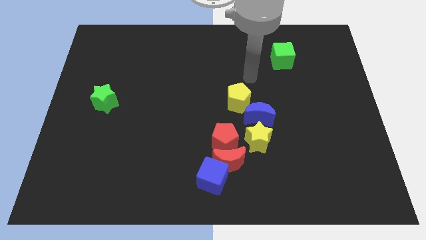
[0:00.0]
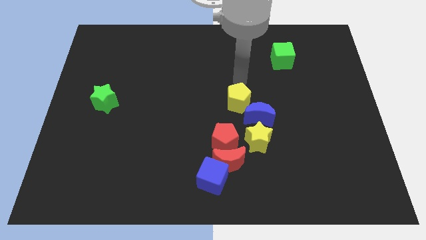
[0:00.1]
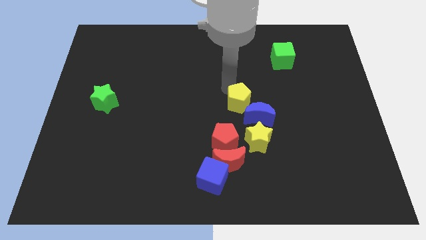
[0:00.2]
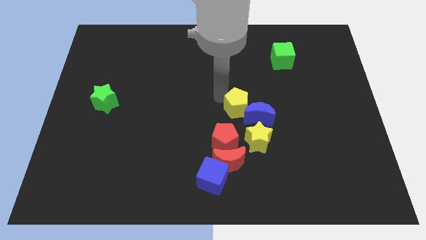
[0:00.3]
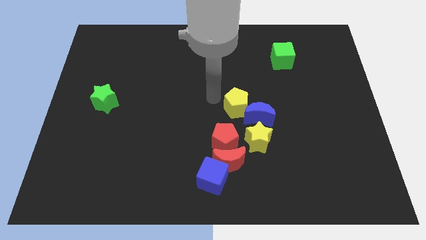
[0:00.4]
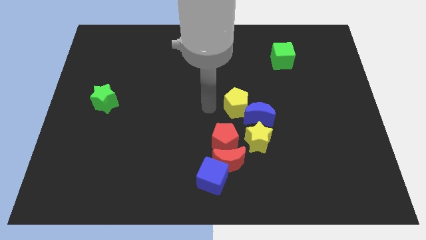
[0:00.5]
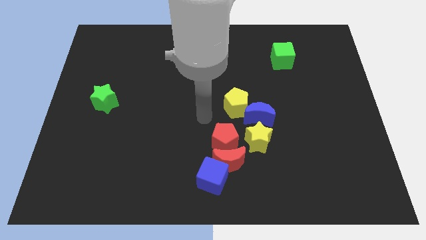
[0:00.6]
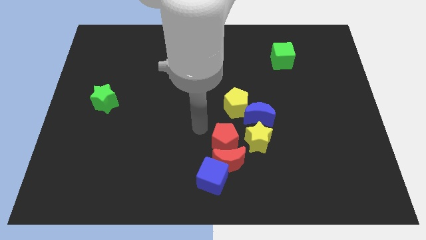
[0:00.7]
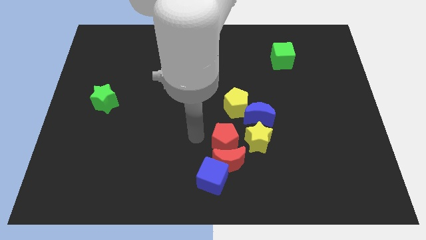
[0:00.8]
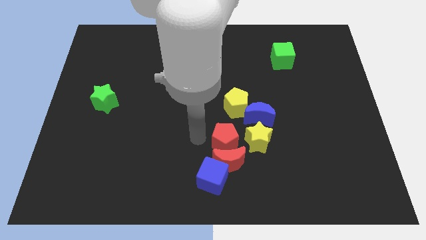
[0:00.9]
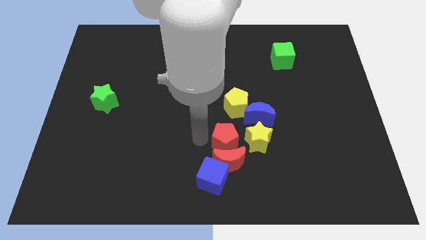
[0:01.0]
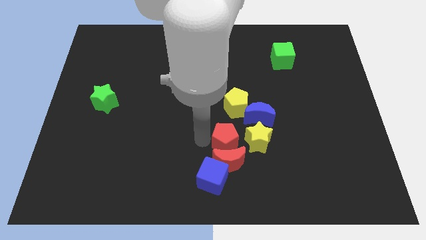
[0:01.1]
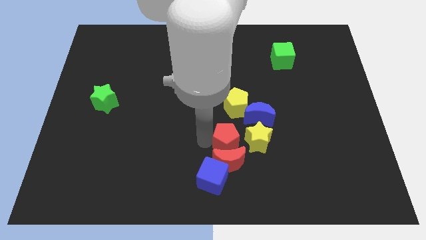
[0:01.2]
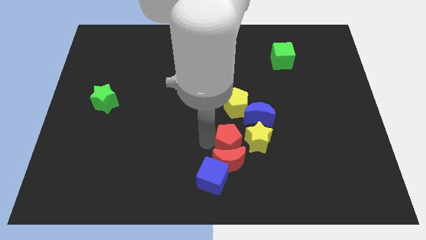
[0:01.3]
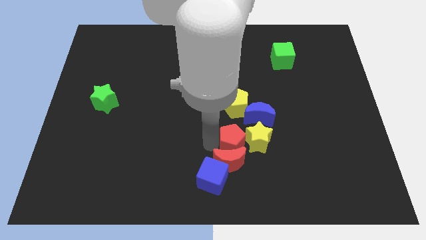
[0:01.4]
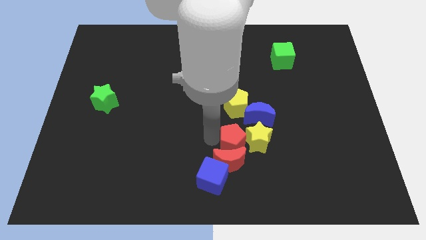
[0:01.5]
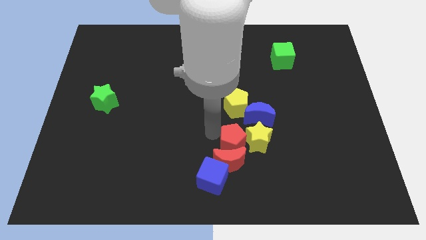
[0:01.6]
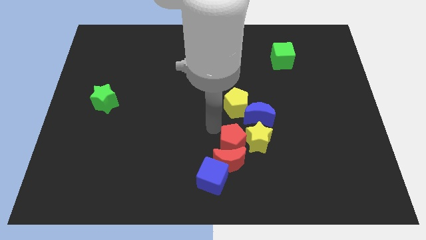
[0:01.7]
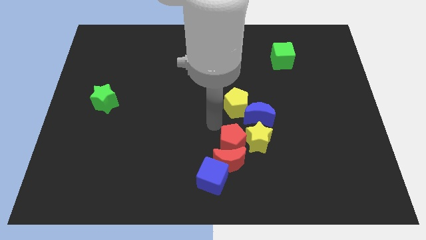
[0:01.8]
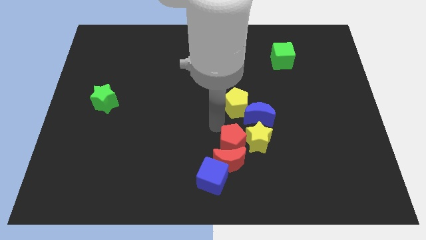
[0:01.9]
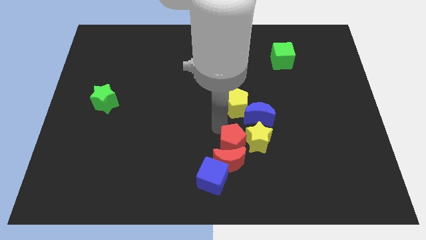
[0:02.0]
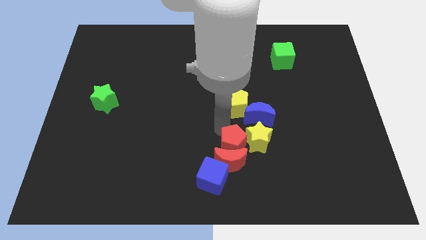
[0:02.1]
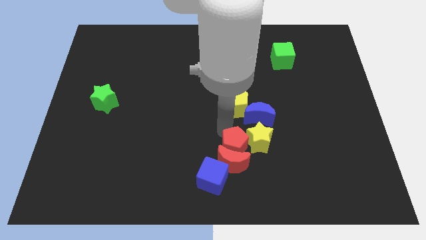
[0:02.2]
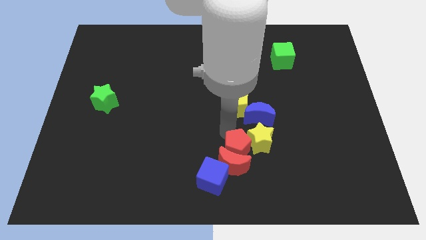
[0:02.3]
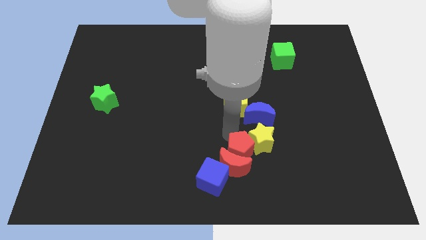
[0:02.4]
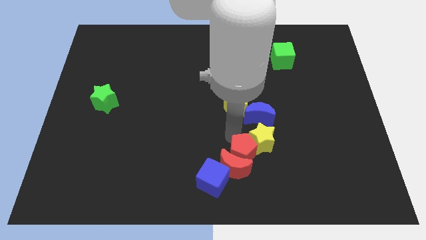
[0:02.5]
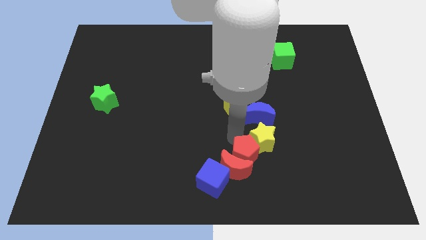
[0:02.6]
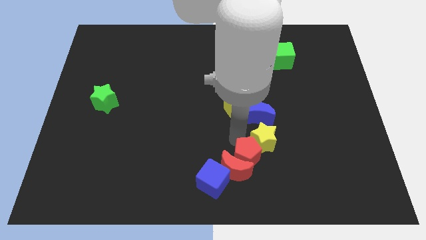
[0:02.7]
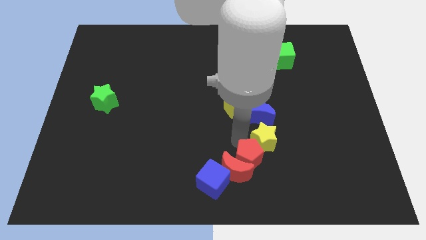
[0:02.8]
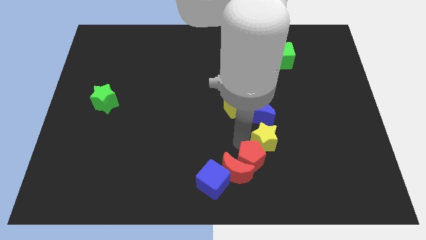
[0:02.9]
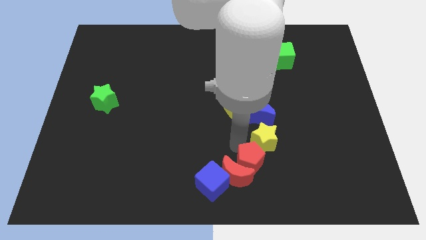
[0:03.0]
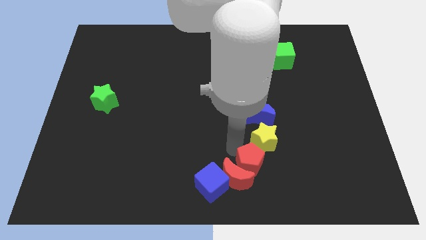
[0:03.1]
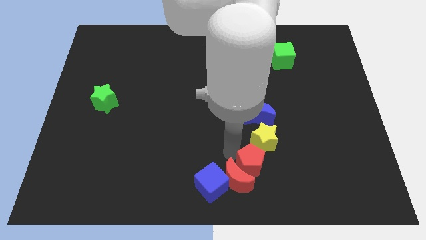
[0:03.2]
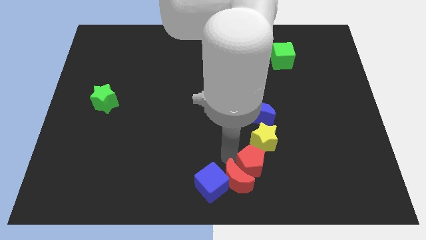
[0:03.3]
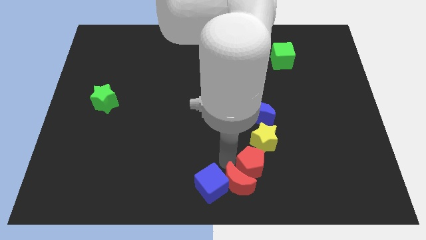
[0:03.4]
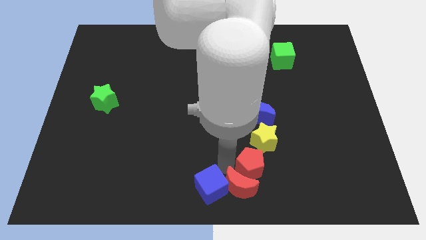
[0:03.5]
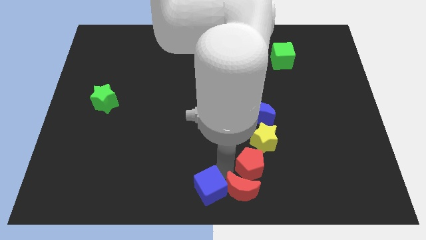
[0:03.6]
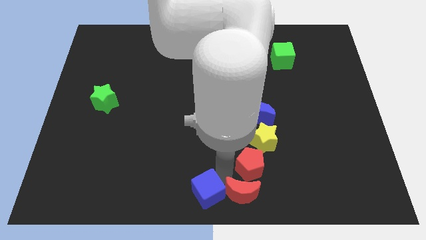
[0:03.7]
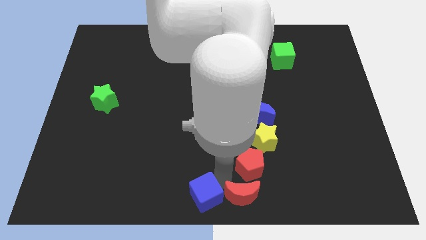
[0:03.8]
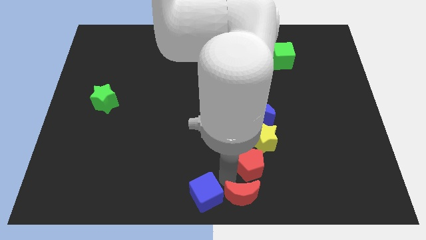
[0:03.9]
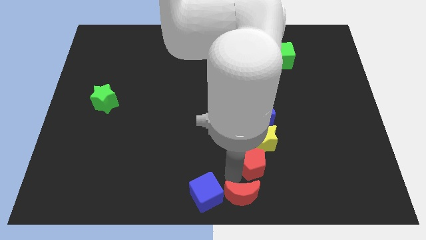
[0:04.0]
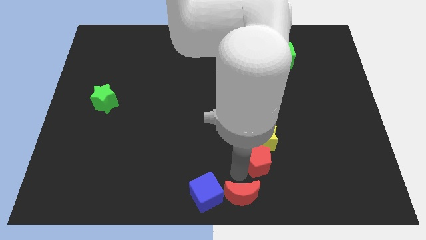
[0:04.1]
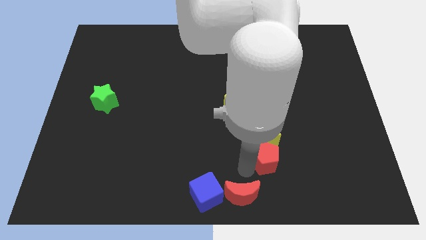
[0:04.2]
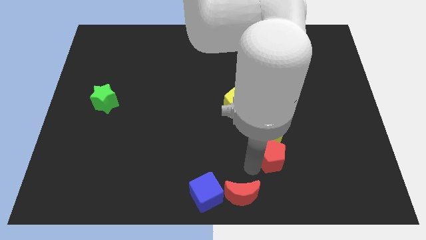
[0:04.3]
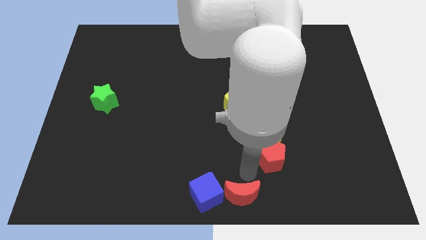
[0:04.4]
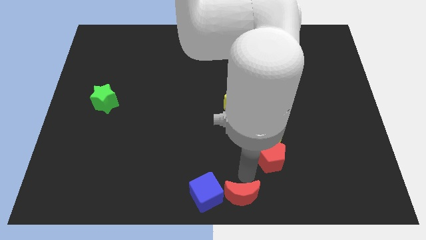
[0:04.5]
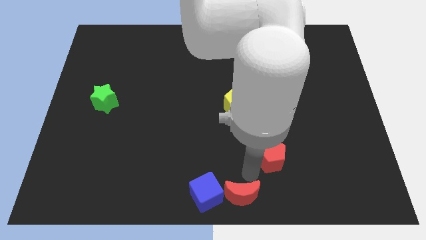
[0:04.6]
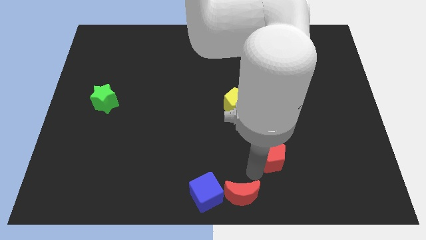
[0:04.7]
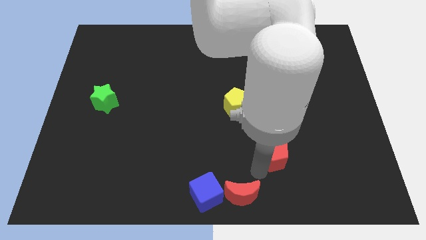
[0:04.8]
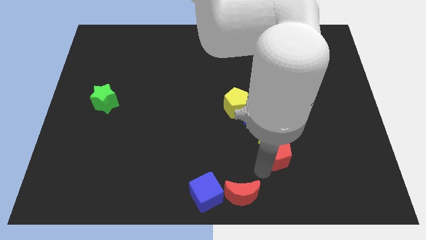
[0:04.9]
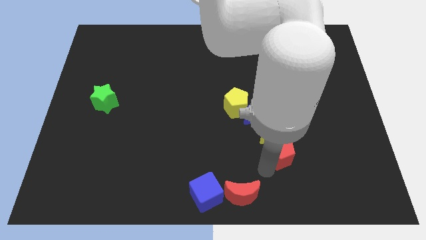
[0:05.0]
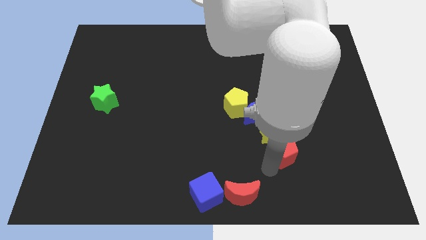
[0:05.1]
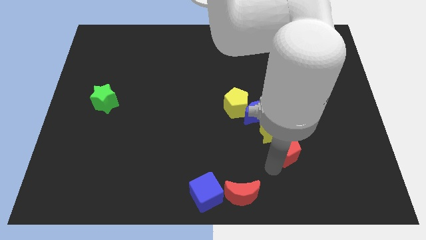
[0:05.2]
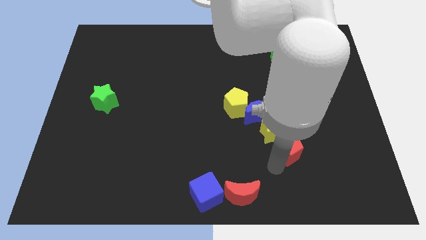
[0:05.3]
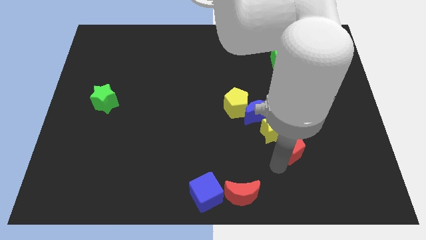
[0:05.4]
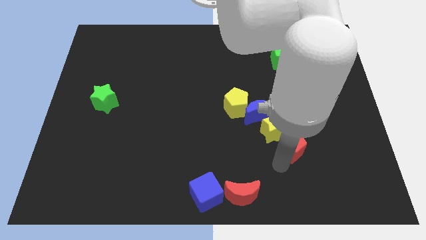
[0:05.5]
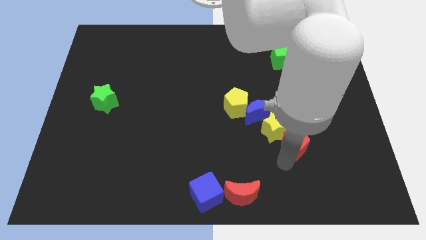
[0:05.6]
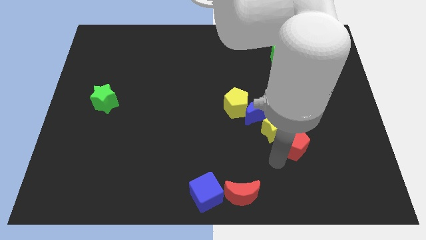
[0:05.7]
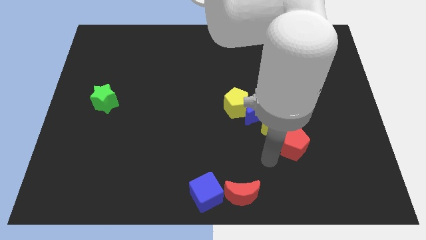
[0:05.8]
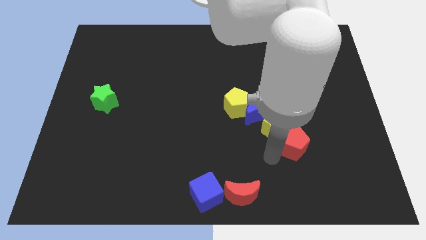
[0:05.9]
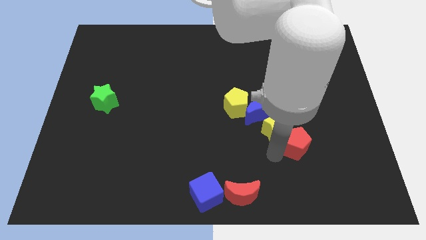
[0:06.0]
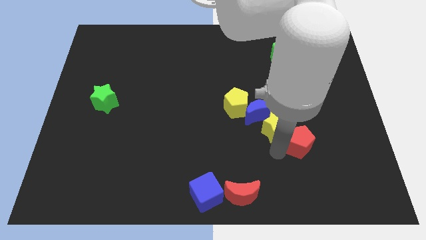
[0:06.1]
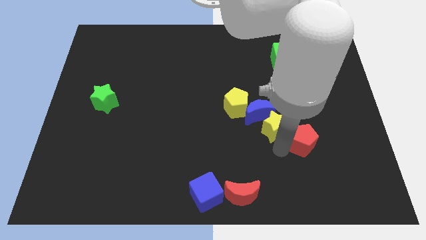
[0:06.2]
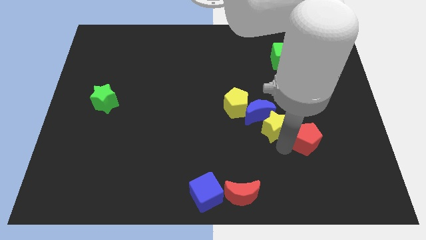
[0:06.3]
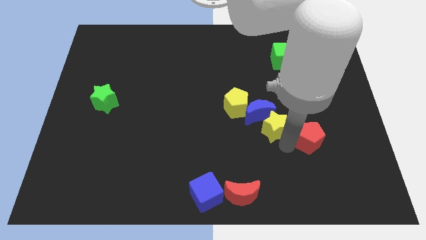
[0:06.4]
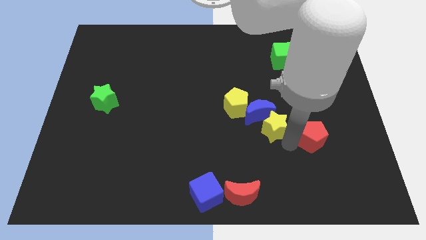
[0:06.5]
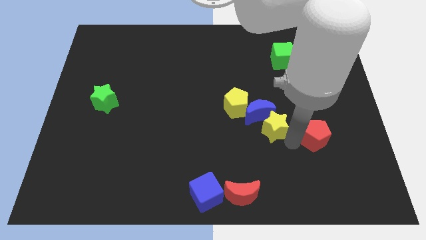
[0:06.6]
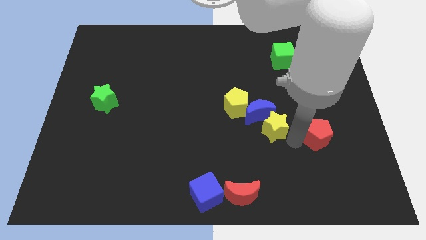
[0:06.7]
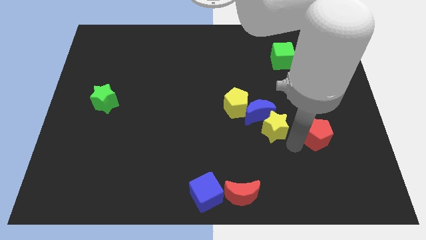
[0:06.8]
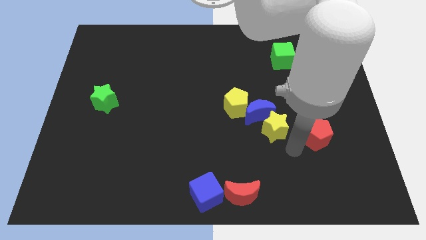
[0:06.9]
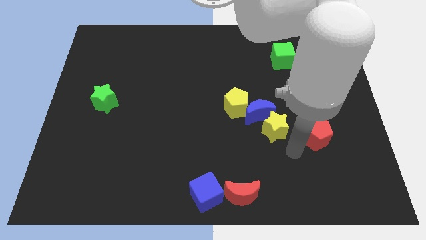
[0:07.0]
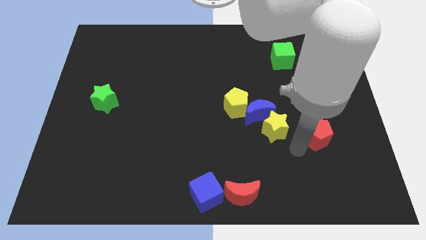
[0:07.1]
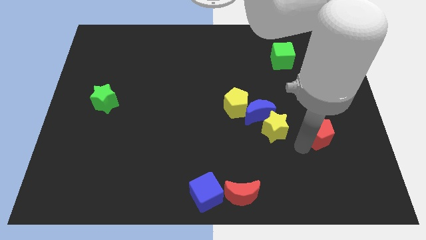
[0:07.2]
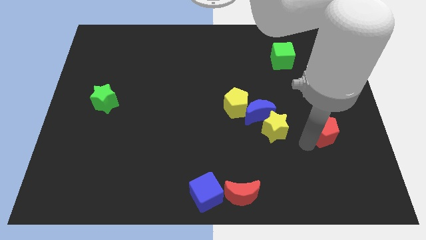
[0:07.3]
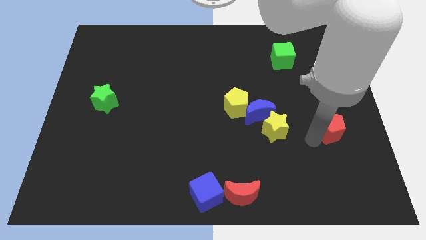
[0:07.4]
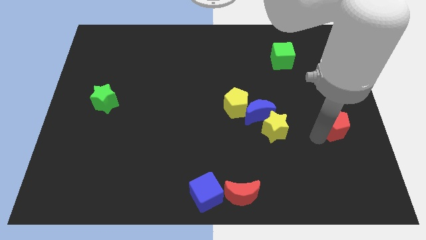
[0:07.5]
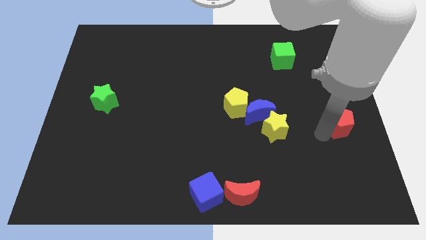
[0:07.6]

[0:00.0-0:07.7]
push the red pentagon to the center right
